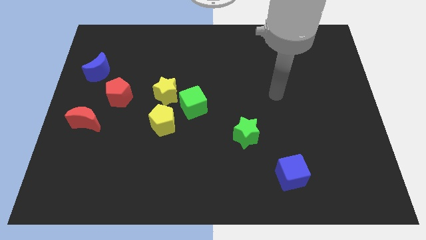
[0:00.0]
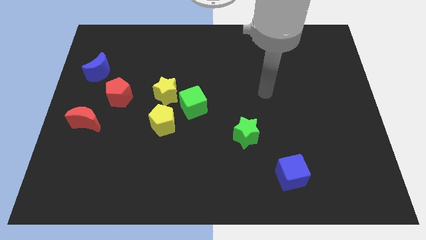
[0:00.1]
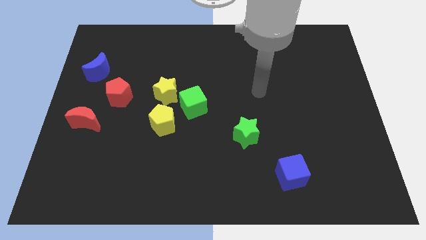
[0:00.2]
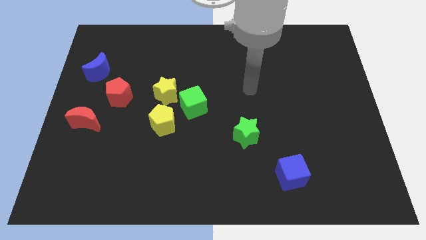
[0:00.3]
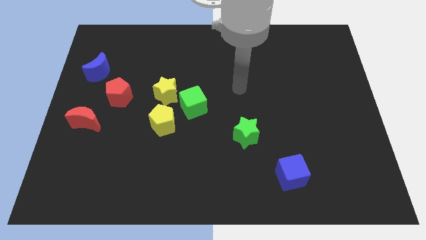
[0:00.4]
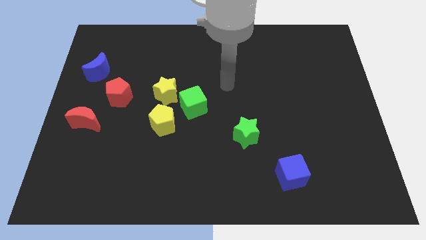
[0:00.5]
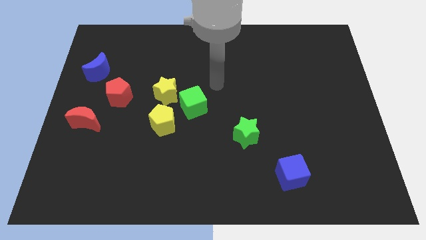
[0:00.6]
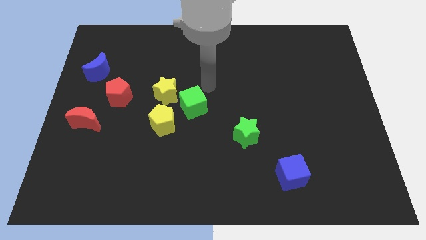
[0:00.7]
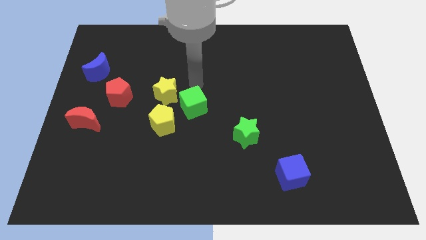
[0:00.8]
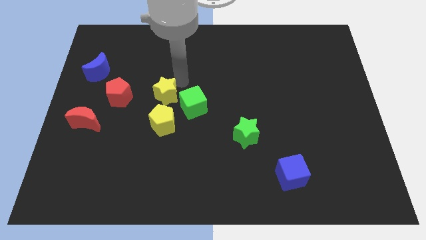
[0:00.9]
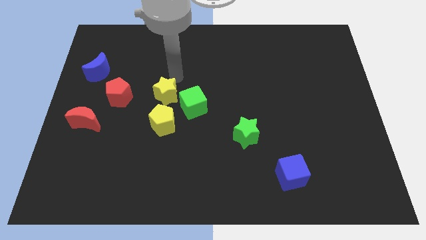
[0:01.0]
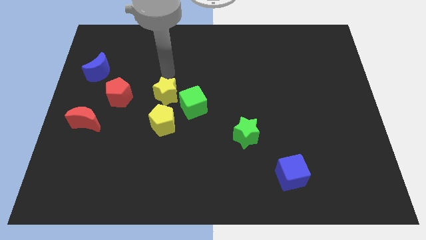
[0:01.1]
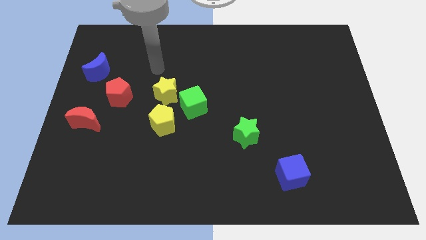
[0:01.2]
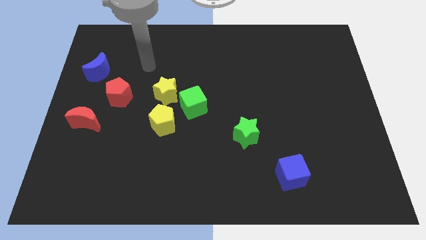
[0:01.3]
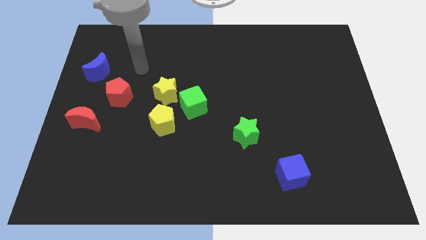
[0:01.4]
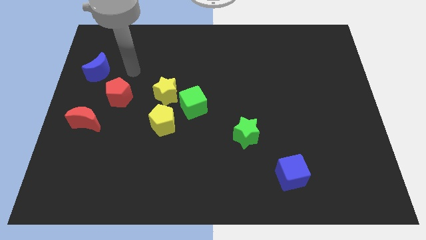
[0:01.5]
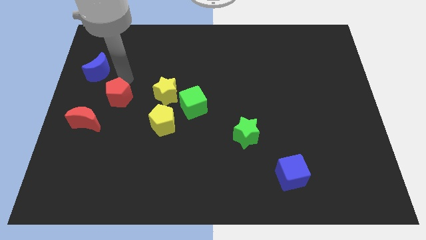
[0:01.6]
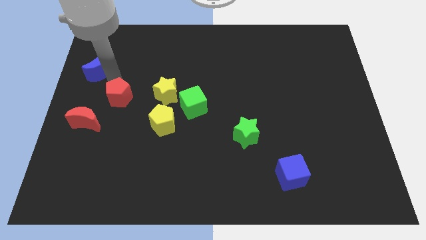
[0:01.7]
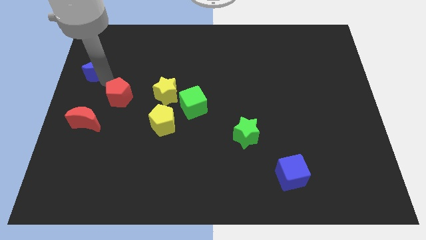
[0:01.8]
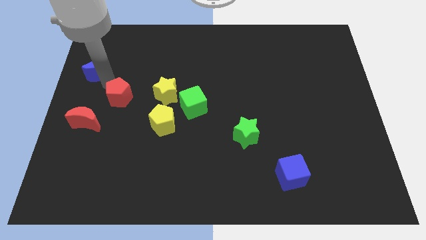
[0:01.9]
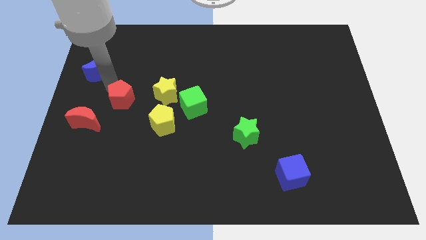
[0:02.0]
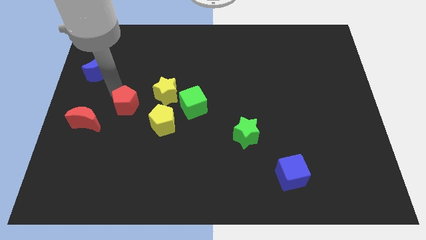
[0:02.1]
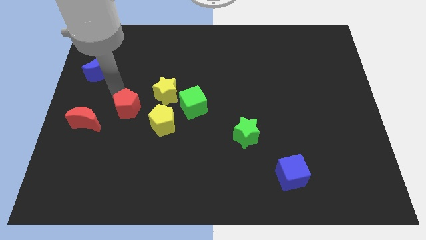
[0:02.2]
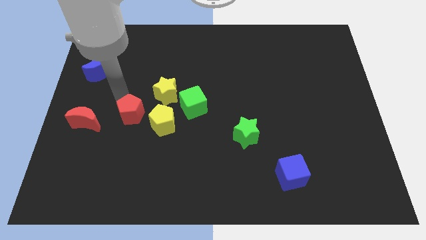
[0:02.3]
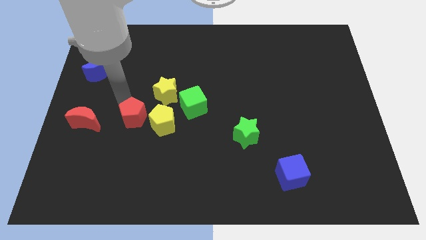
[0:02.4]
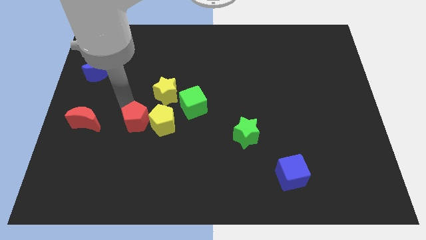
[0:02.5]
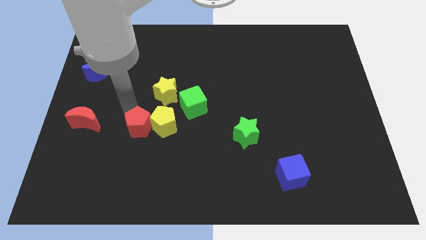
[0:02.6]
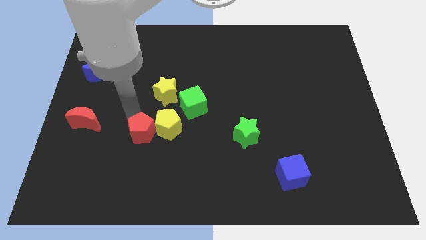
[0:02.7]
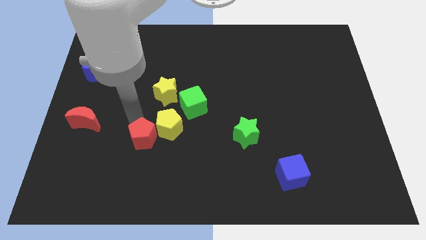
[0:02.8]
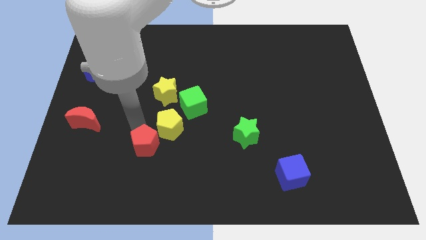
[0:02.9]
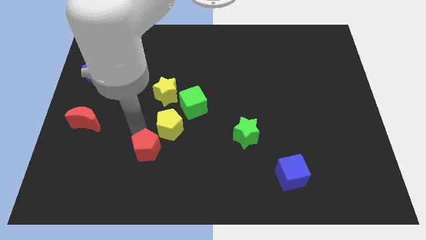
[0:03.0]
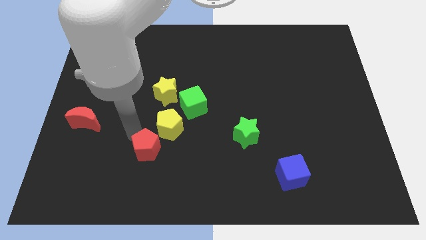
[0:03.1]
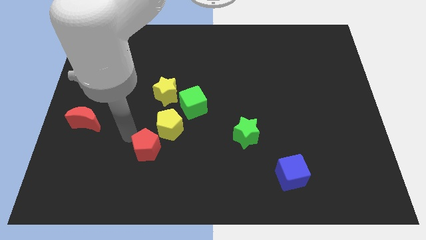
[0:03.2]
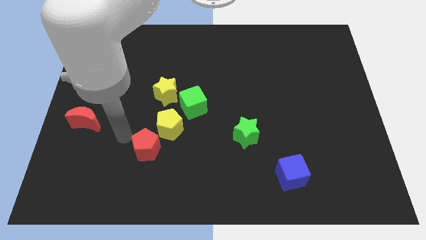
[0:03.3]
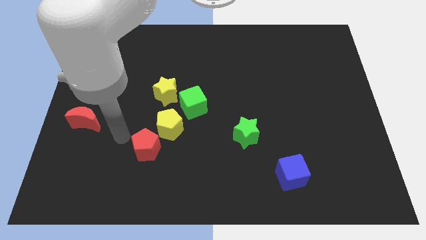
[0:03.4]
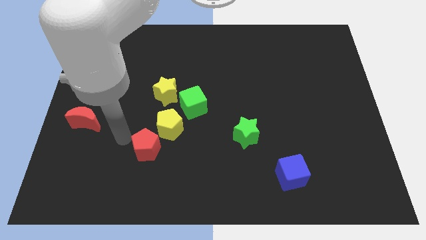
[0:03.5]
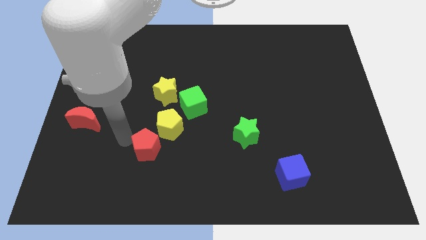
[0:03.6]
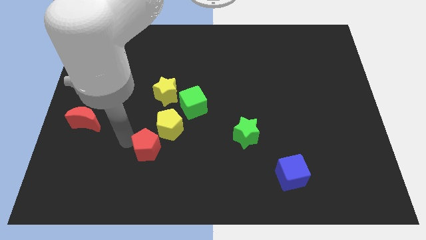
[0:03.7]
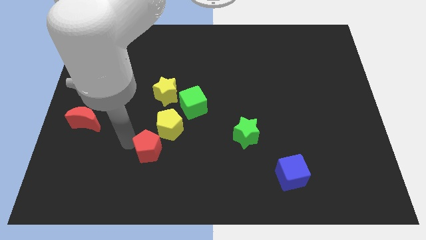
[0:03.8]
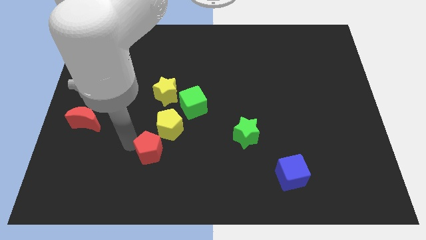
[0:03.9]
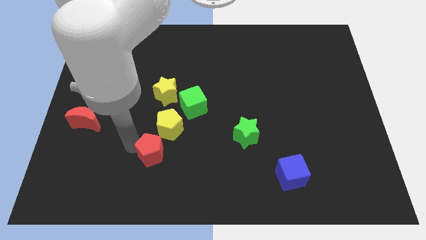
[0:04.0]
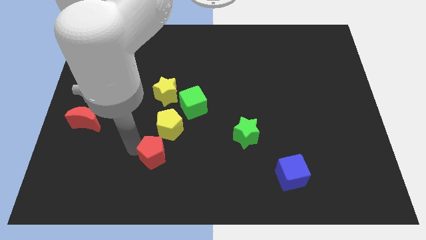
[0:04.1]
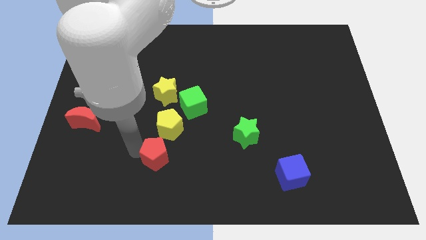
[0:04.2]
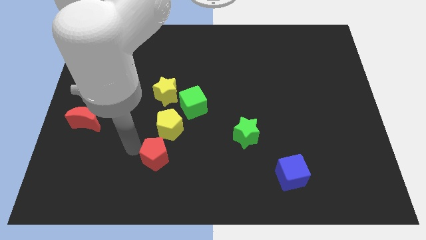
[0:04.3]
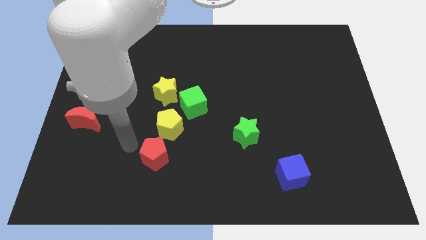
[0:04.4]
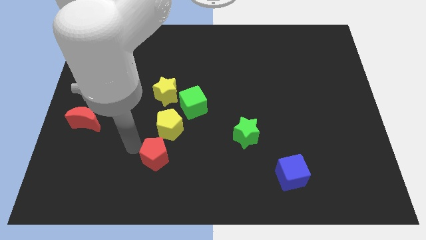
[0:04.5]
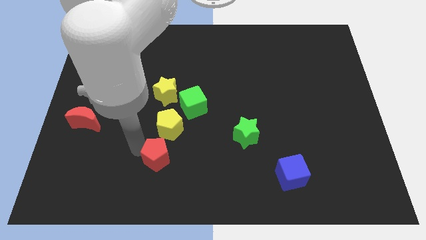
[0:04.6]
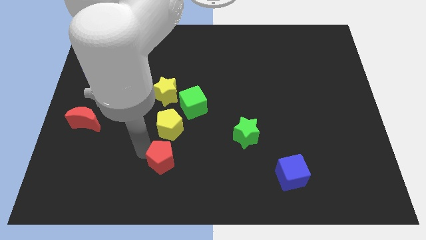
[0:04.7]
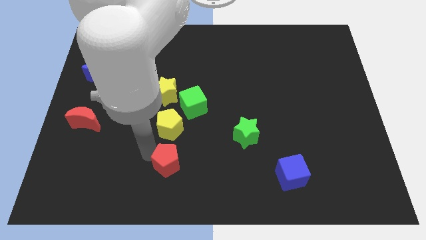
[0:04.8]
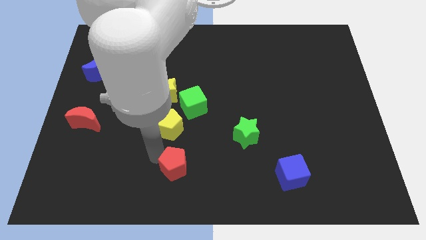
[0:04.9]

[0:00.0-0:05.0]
move the red pentagon to the bottom

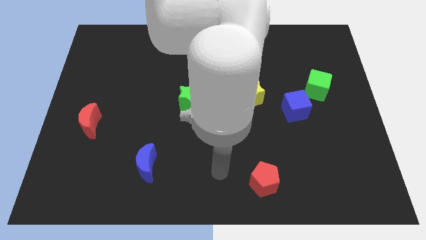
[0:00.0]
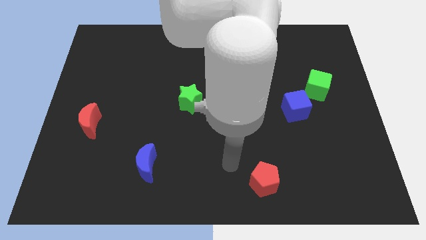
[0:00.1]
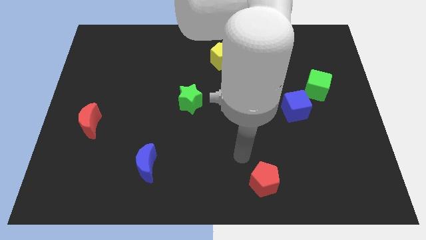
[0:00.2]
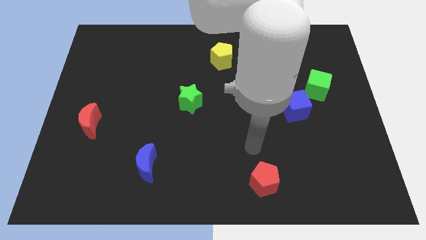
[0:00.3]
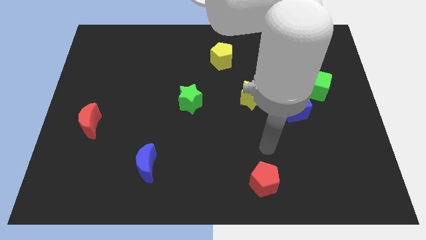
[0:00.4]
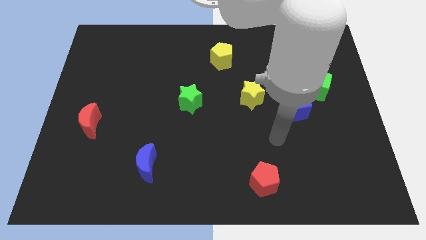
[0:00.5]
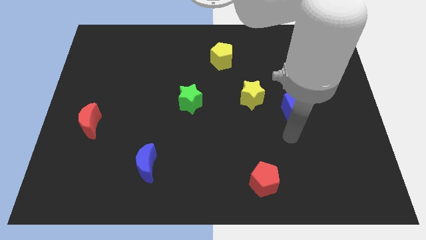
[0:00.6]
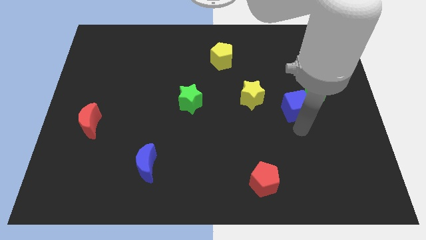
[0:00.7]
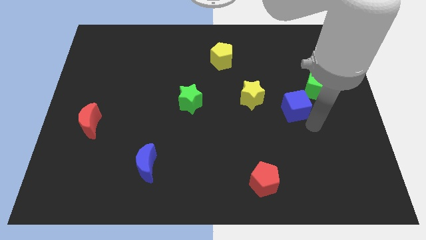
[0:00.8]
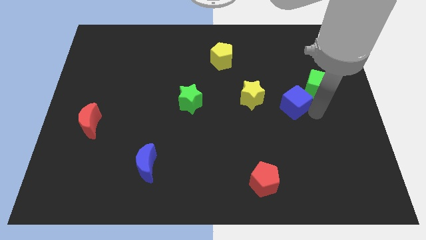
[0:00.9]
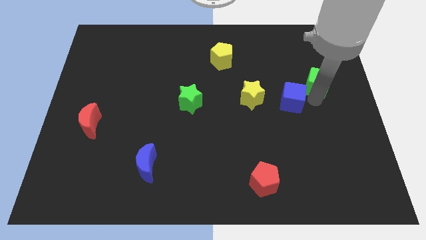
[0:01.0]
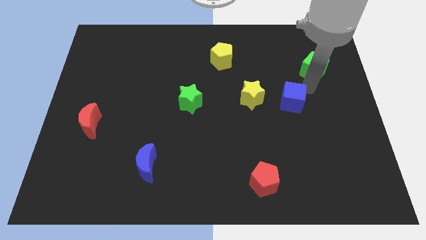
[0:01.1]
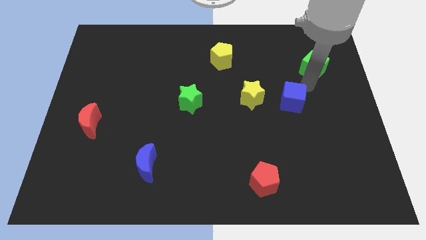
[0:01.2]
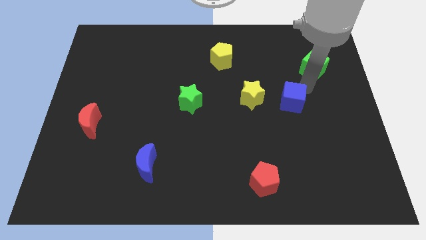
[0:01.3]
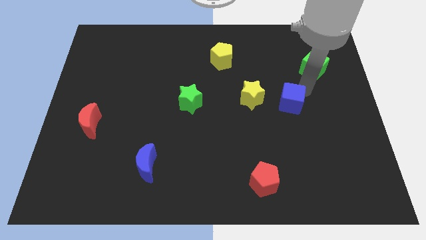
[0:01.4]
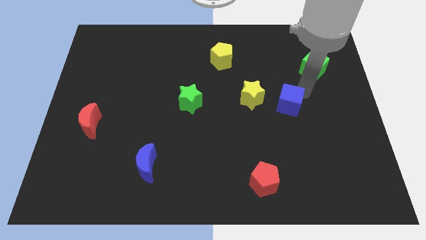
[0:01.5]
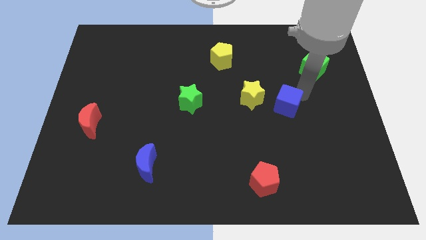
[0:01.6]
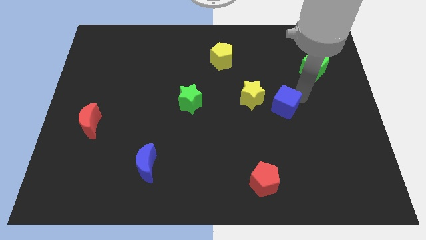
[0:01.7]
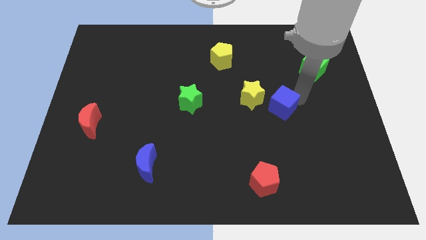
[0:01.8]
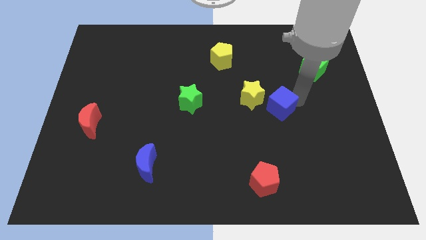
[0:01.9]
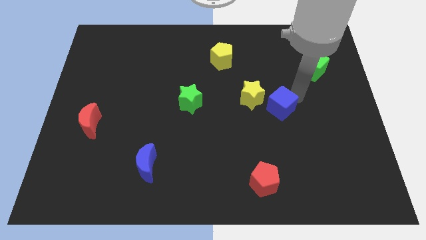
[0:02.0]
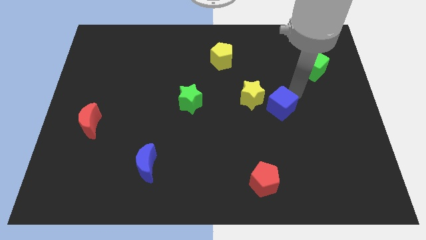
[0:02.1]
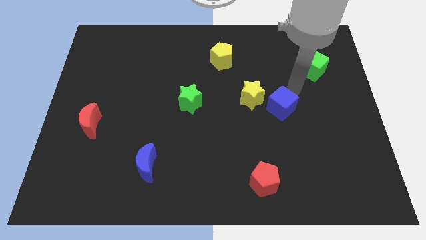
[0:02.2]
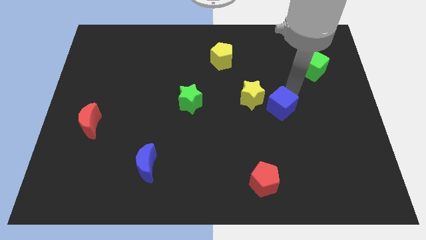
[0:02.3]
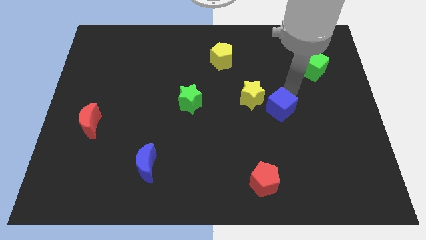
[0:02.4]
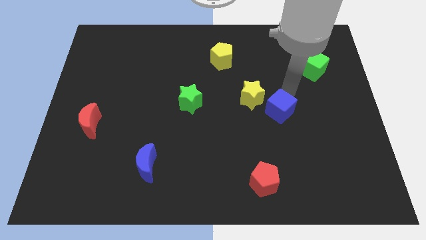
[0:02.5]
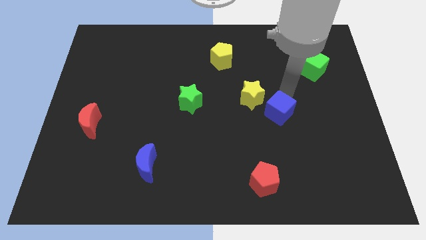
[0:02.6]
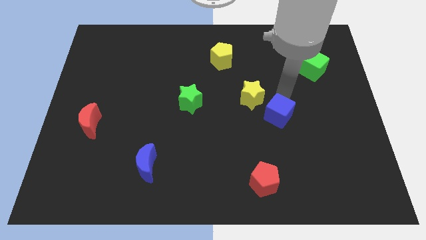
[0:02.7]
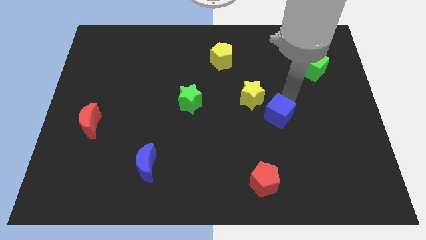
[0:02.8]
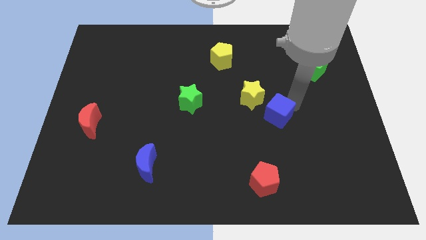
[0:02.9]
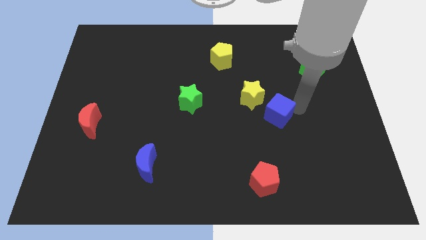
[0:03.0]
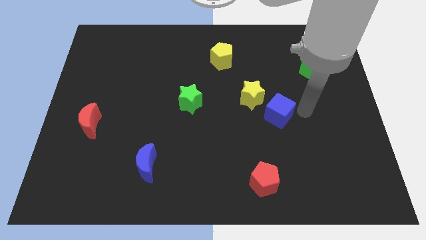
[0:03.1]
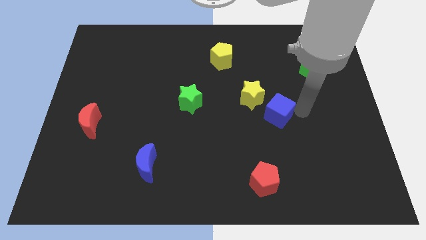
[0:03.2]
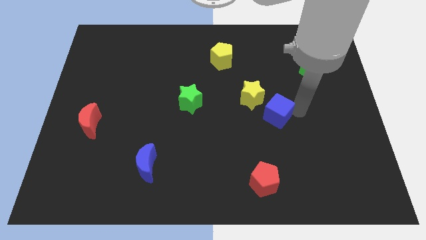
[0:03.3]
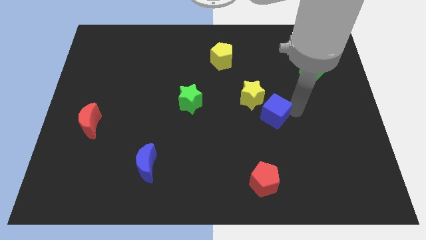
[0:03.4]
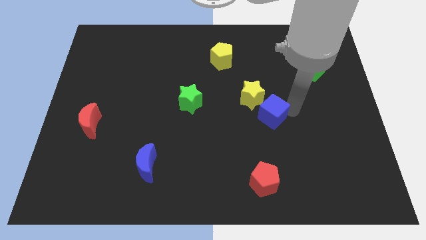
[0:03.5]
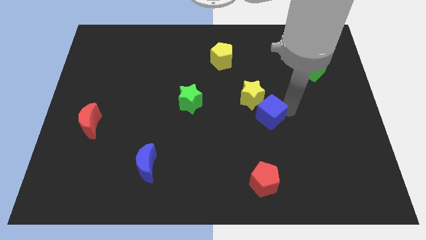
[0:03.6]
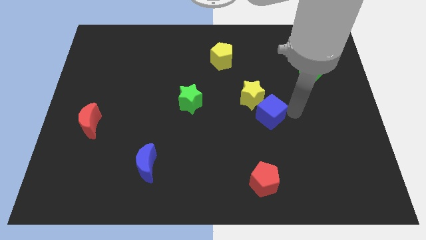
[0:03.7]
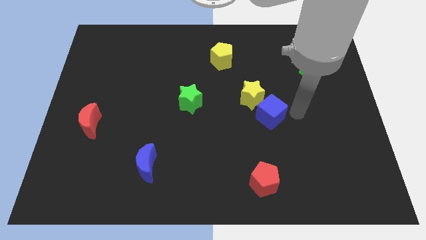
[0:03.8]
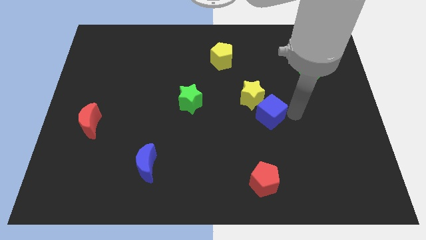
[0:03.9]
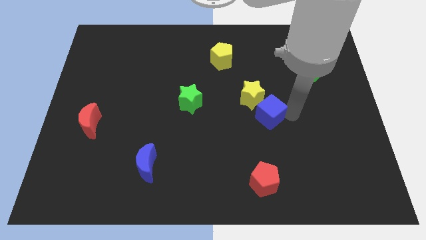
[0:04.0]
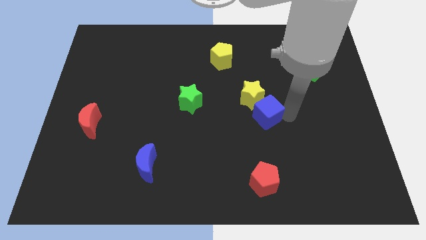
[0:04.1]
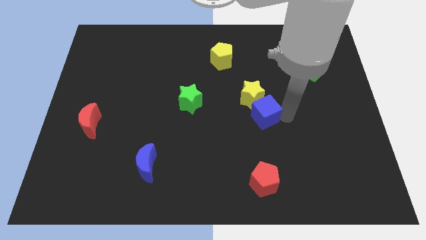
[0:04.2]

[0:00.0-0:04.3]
slide the blue cube to the center
